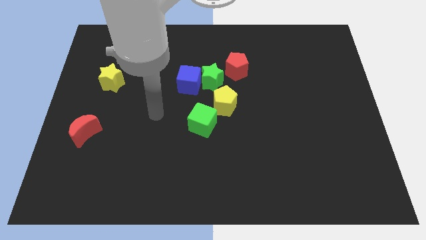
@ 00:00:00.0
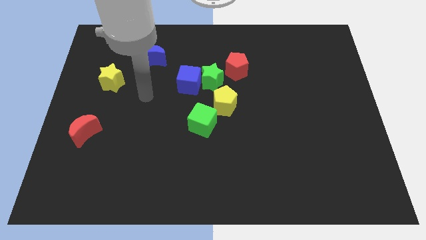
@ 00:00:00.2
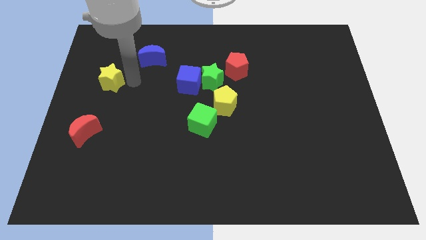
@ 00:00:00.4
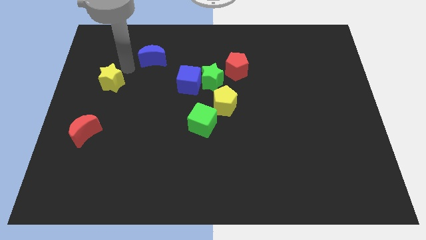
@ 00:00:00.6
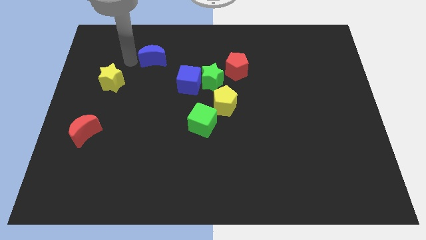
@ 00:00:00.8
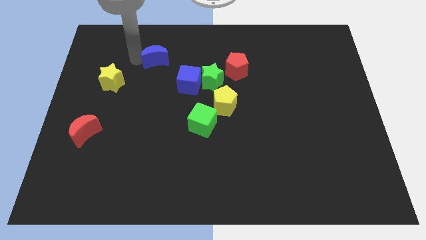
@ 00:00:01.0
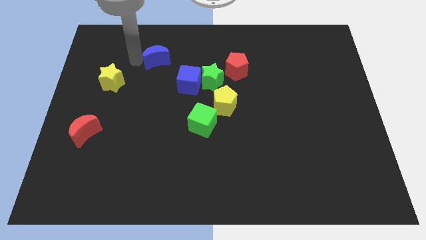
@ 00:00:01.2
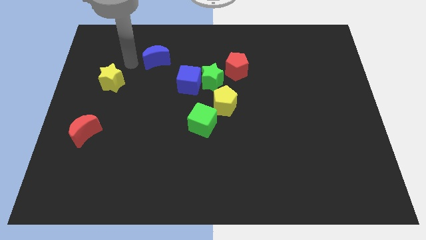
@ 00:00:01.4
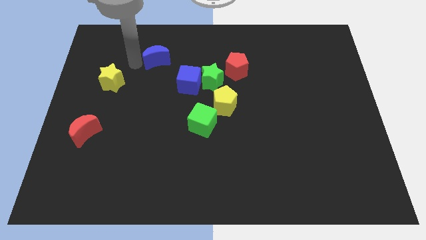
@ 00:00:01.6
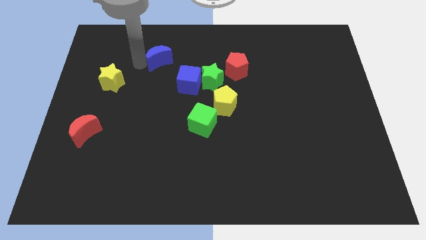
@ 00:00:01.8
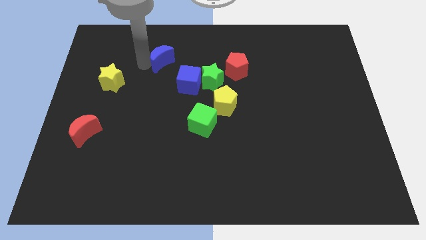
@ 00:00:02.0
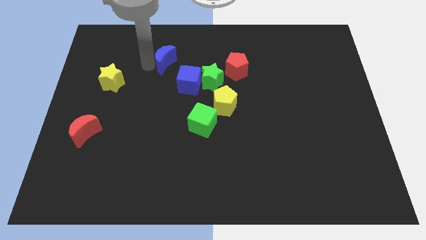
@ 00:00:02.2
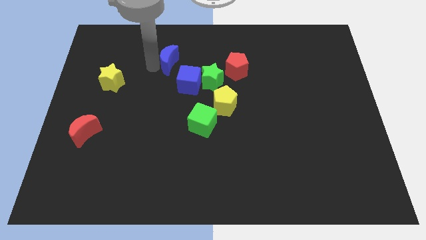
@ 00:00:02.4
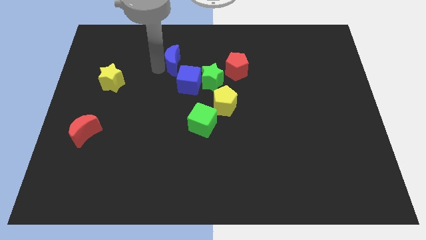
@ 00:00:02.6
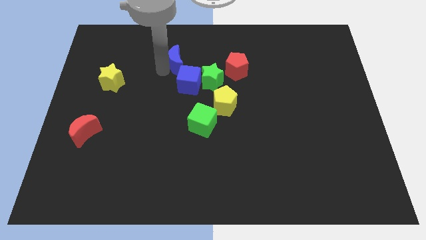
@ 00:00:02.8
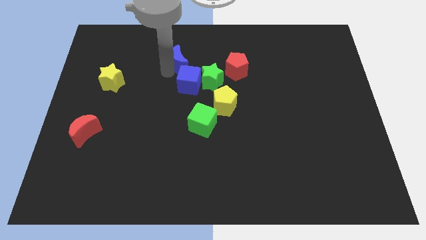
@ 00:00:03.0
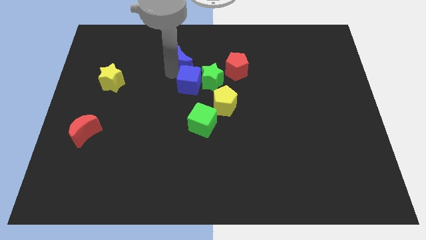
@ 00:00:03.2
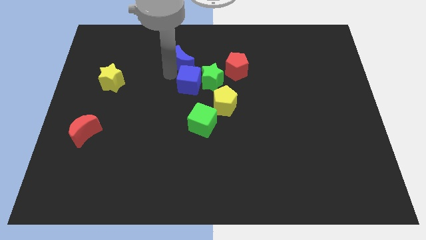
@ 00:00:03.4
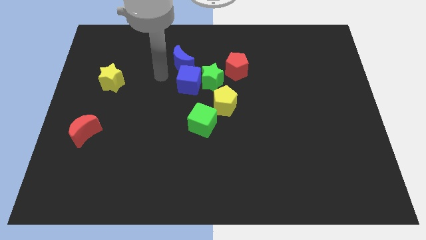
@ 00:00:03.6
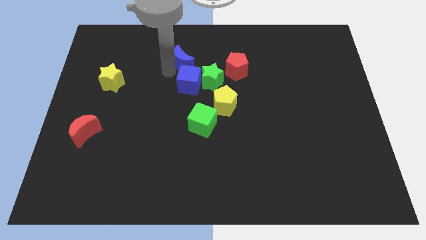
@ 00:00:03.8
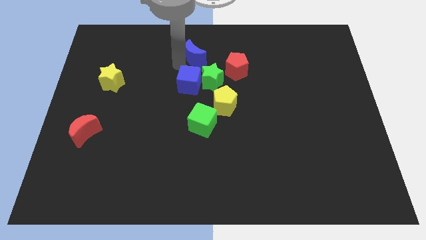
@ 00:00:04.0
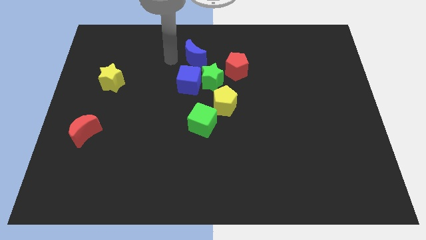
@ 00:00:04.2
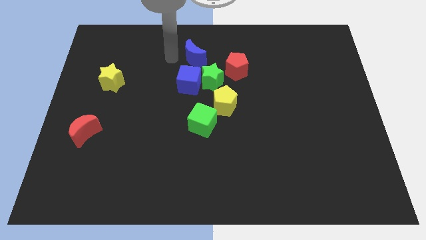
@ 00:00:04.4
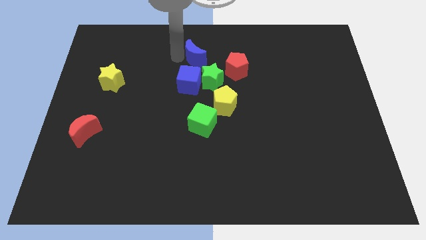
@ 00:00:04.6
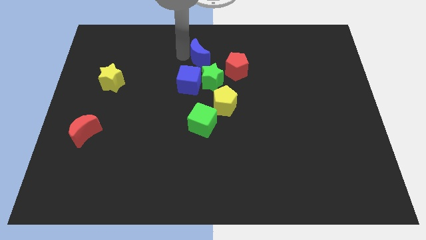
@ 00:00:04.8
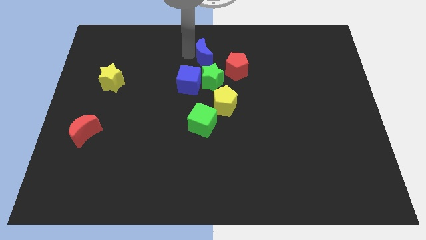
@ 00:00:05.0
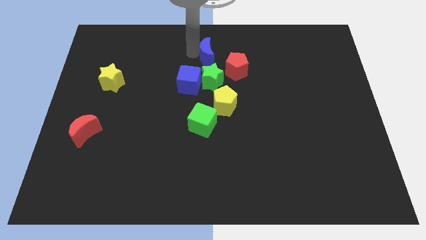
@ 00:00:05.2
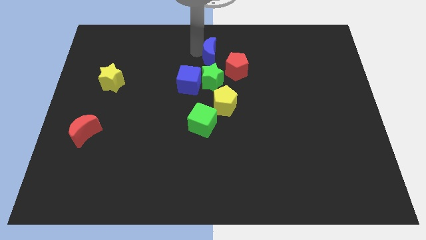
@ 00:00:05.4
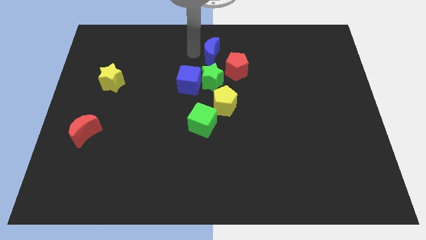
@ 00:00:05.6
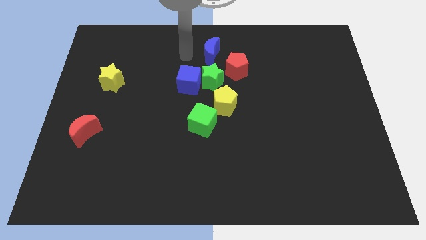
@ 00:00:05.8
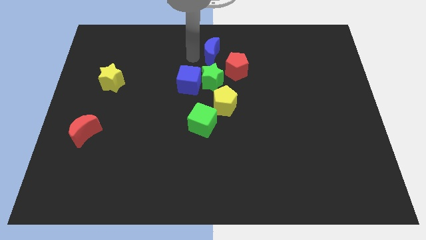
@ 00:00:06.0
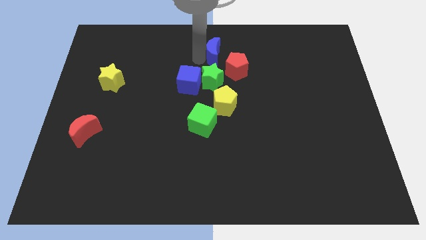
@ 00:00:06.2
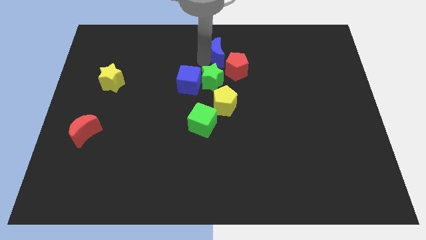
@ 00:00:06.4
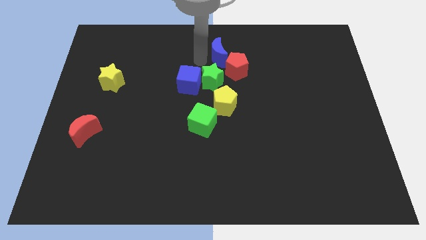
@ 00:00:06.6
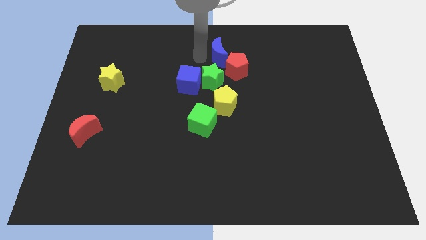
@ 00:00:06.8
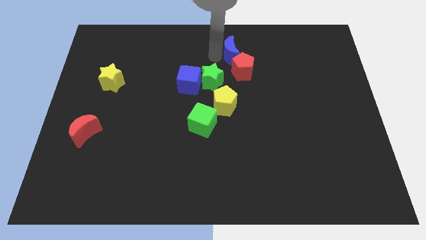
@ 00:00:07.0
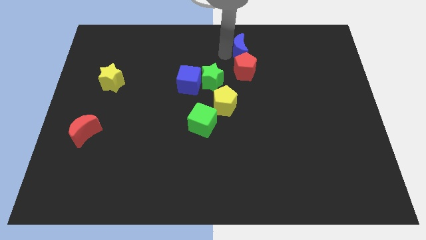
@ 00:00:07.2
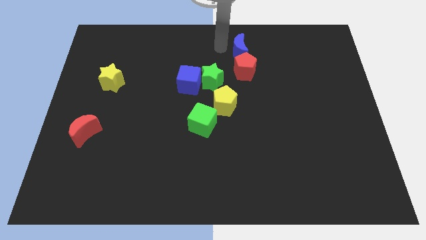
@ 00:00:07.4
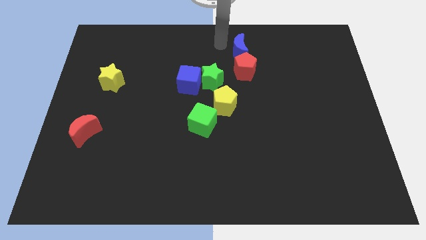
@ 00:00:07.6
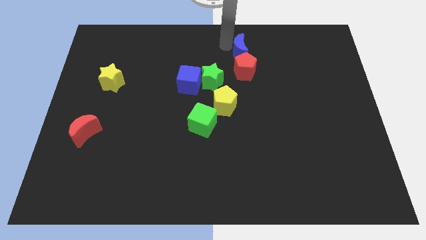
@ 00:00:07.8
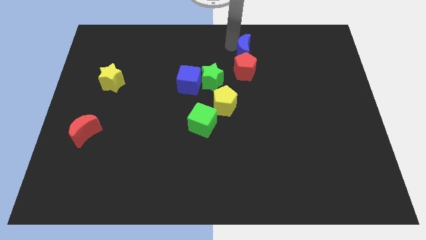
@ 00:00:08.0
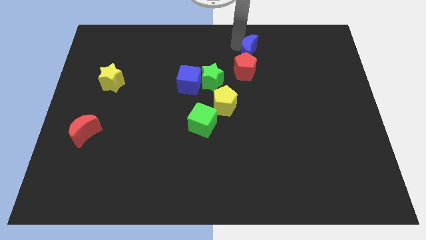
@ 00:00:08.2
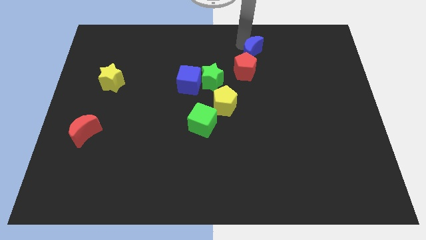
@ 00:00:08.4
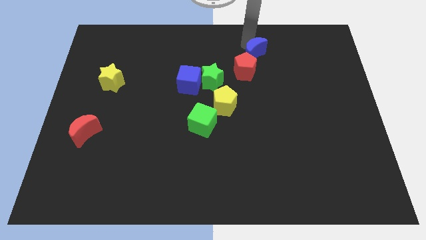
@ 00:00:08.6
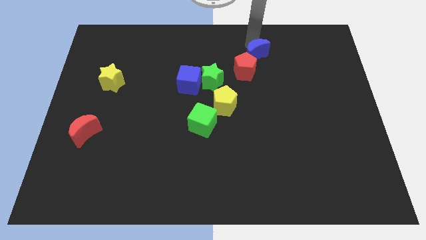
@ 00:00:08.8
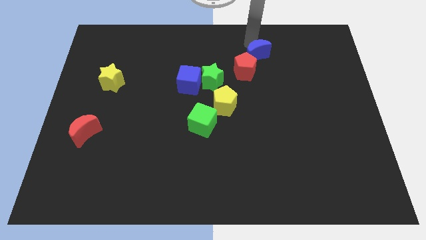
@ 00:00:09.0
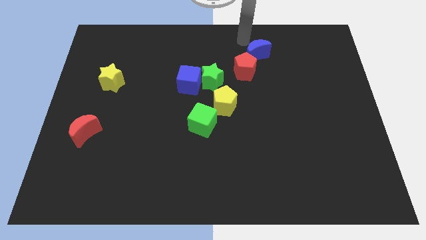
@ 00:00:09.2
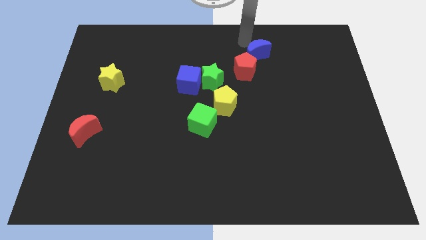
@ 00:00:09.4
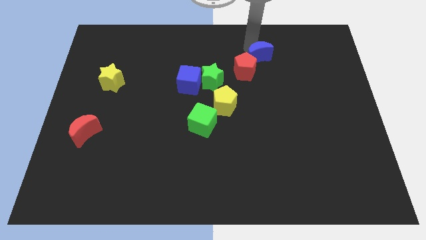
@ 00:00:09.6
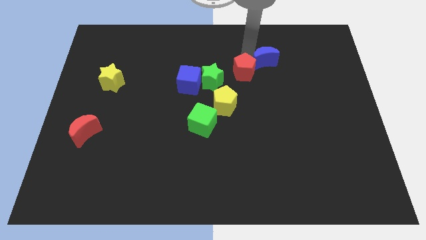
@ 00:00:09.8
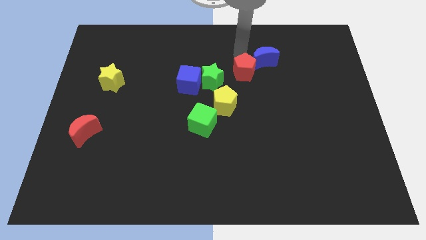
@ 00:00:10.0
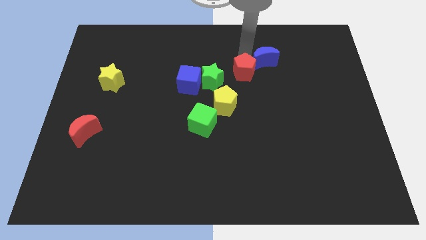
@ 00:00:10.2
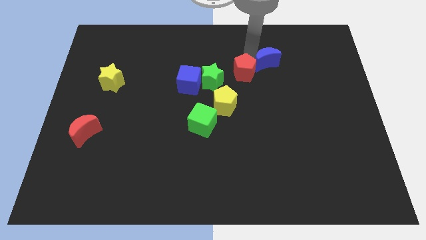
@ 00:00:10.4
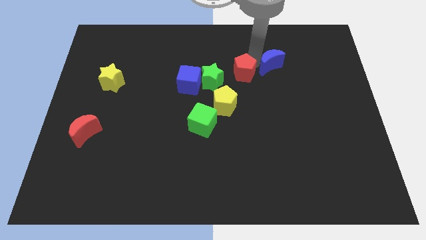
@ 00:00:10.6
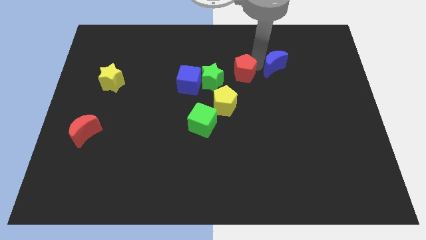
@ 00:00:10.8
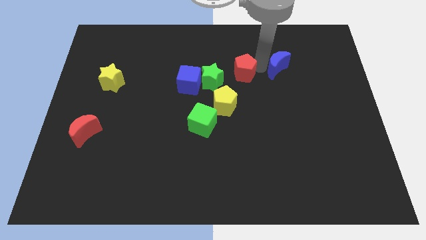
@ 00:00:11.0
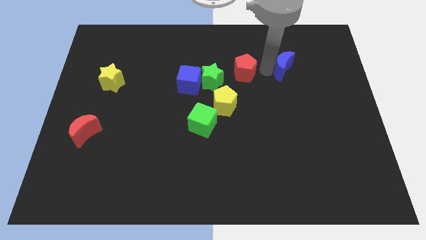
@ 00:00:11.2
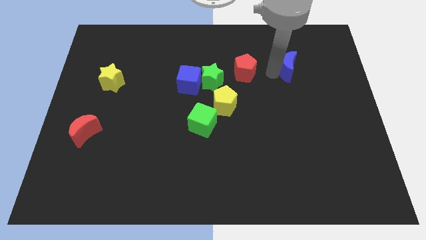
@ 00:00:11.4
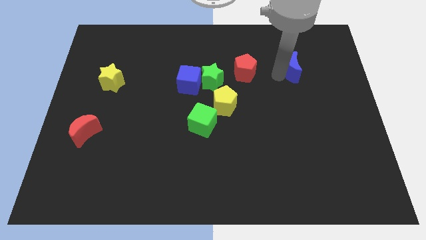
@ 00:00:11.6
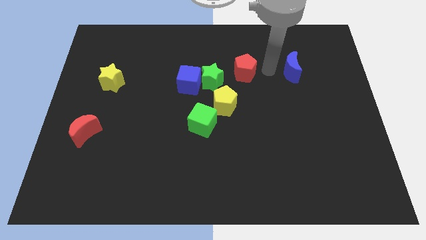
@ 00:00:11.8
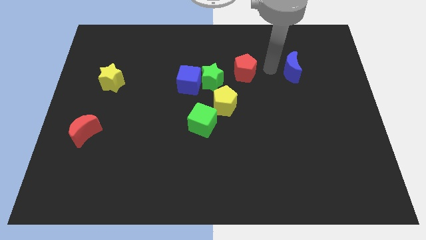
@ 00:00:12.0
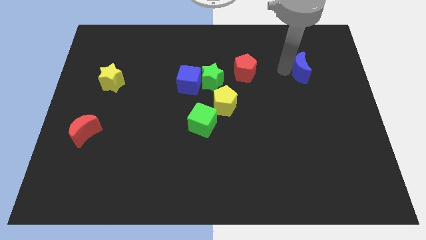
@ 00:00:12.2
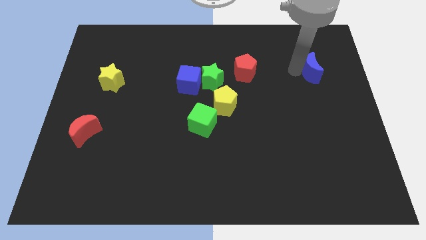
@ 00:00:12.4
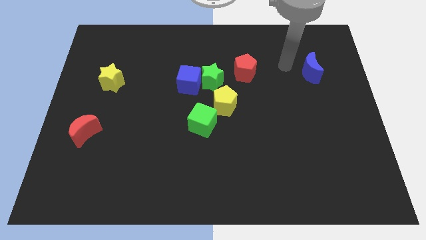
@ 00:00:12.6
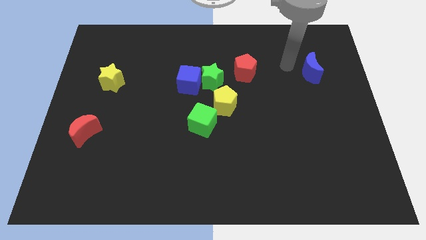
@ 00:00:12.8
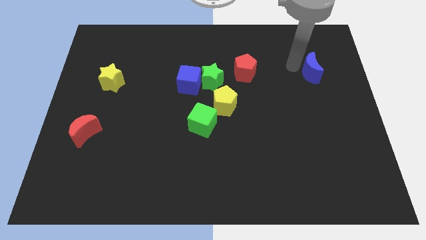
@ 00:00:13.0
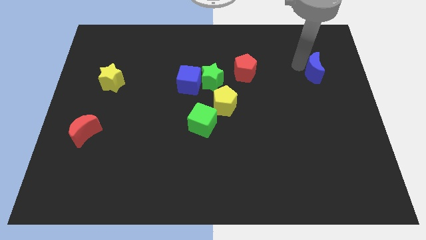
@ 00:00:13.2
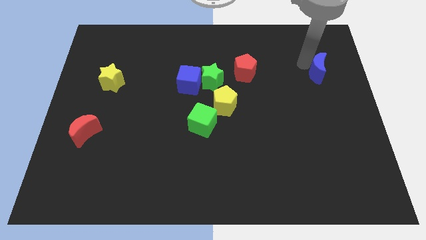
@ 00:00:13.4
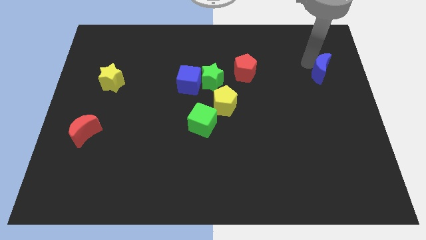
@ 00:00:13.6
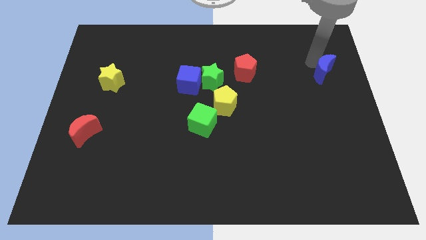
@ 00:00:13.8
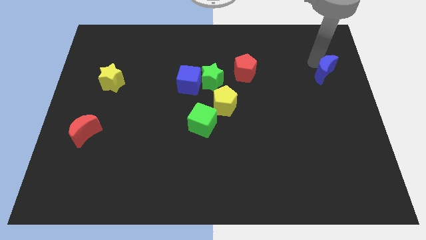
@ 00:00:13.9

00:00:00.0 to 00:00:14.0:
move the blue moon to the right side
